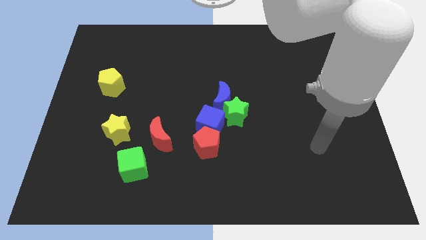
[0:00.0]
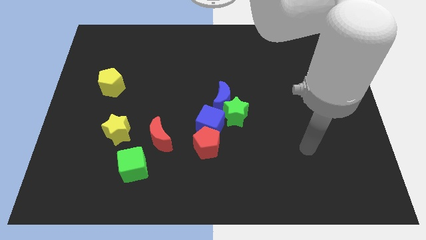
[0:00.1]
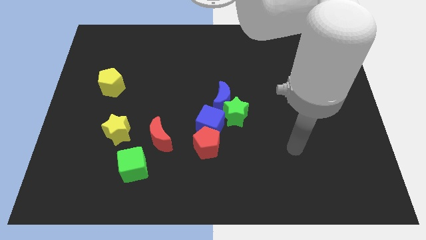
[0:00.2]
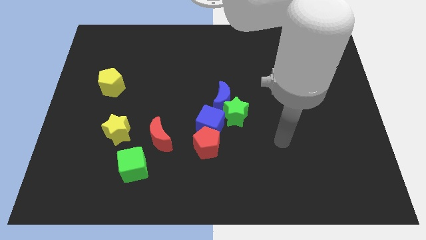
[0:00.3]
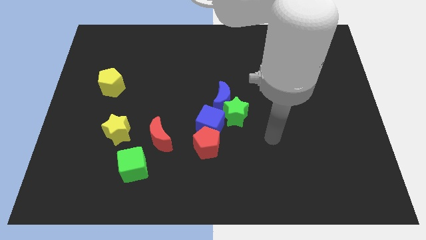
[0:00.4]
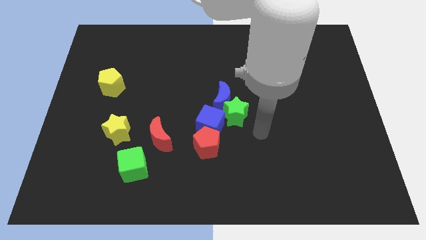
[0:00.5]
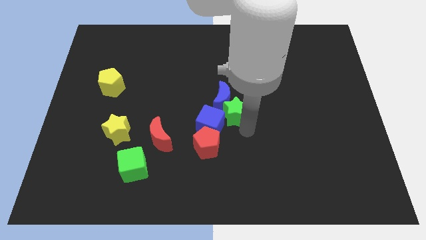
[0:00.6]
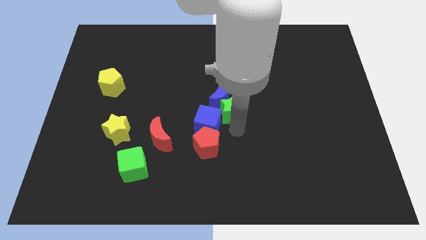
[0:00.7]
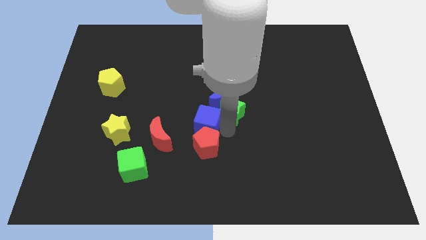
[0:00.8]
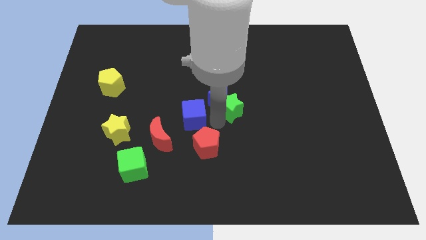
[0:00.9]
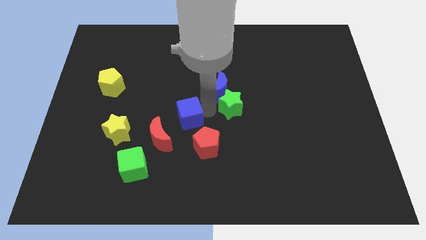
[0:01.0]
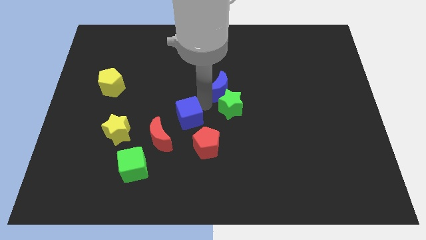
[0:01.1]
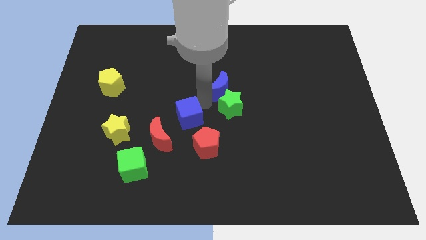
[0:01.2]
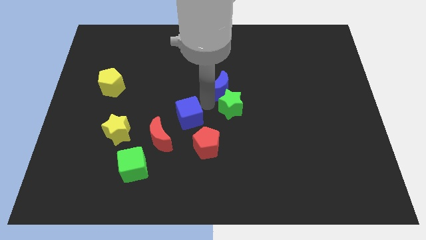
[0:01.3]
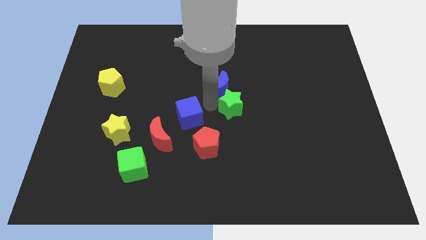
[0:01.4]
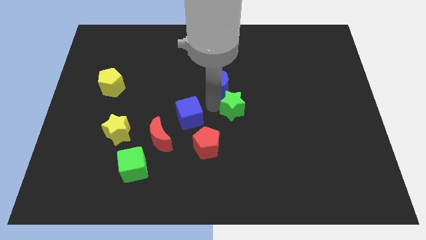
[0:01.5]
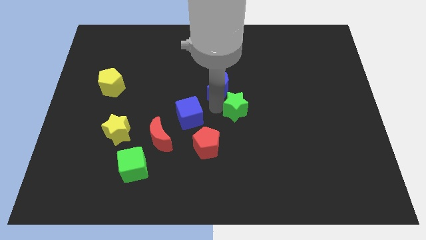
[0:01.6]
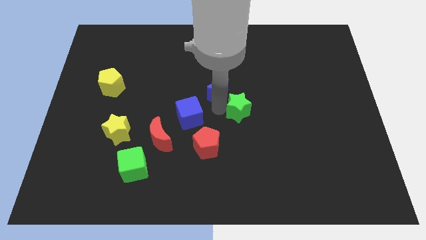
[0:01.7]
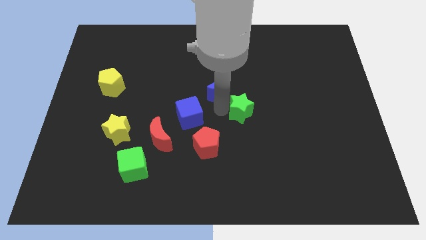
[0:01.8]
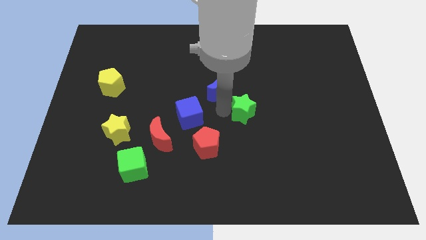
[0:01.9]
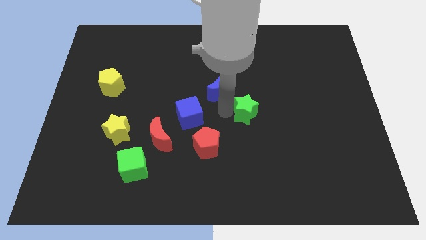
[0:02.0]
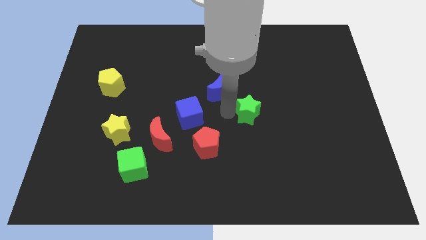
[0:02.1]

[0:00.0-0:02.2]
separate the green star from the blue moon and blue cube

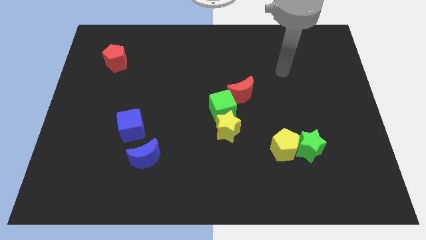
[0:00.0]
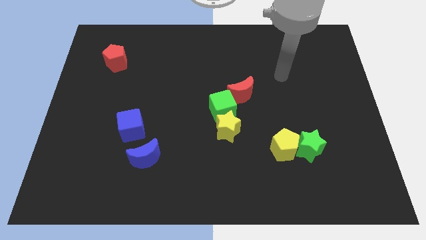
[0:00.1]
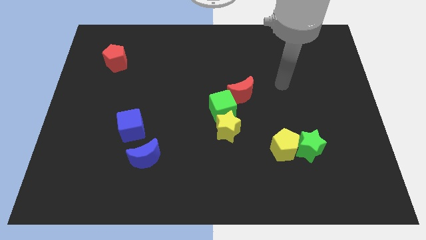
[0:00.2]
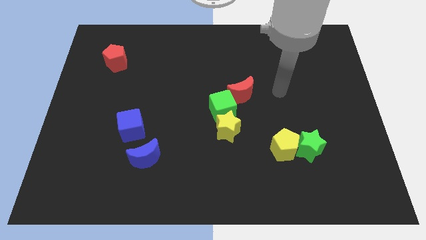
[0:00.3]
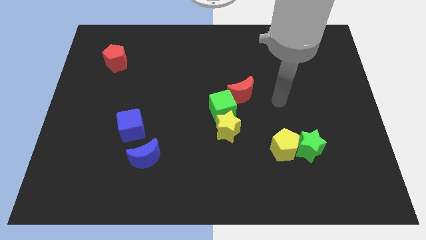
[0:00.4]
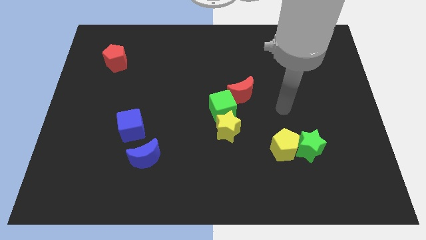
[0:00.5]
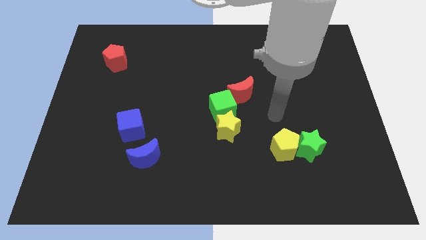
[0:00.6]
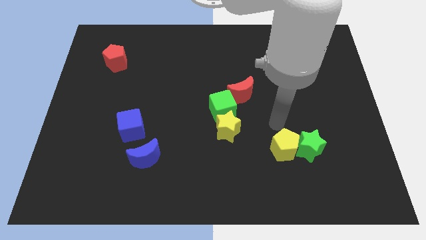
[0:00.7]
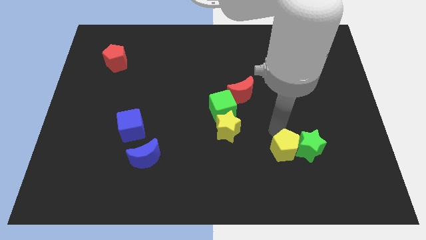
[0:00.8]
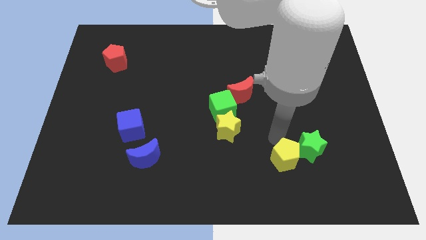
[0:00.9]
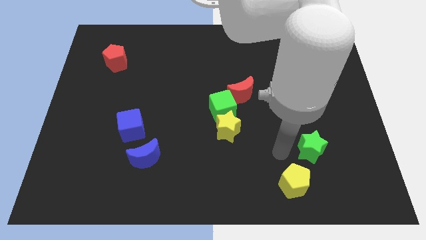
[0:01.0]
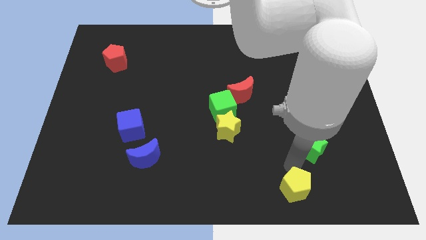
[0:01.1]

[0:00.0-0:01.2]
pull the green star apart from the yellow pentagon

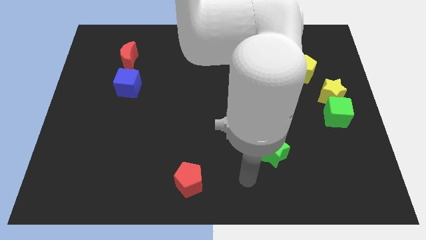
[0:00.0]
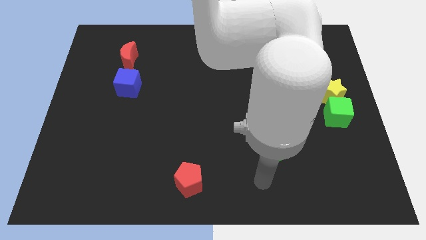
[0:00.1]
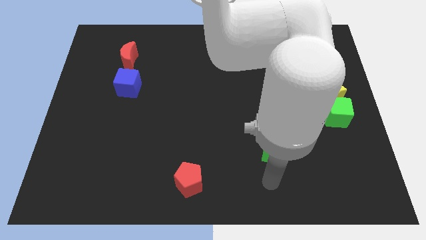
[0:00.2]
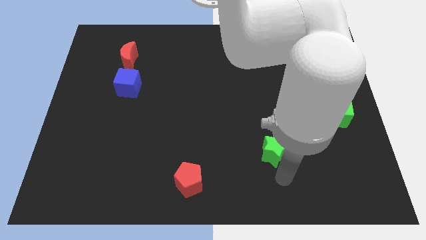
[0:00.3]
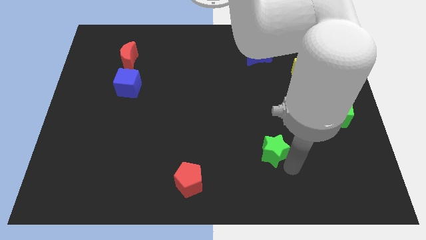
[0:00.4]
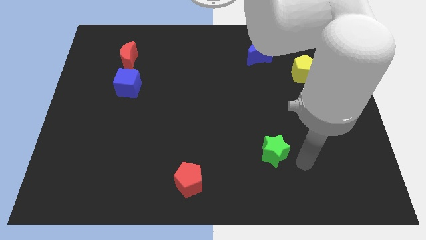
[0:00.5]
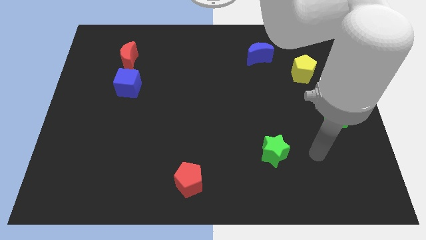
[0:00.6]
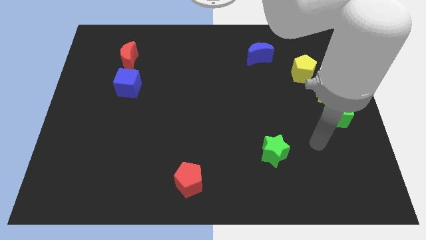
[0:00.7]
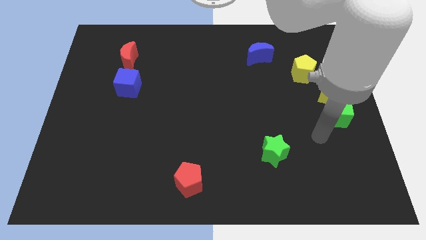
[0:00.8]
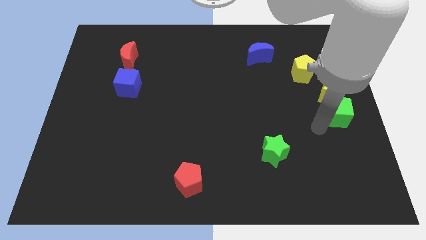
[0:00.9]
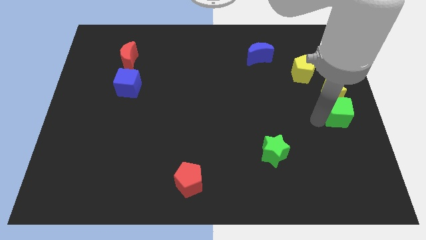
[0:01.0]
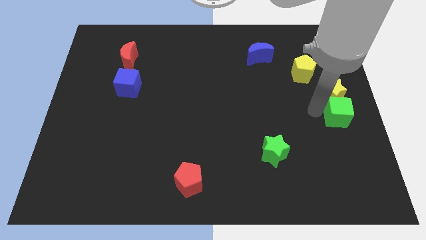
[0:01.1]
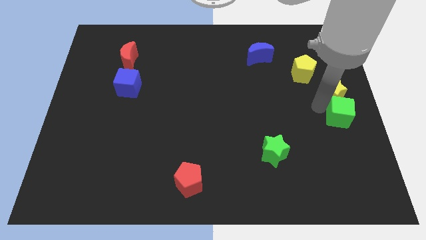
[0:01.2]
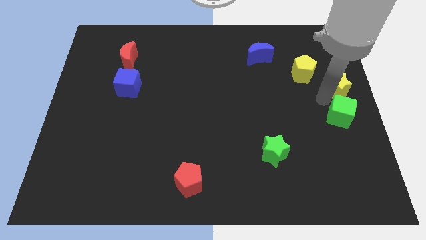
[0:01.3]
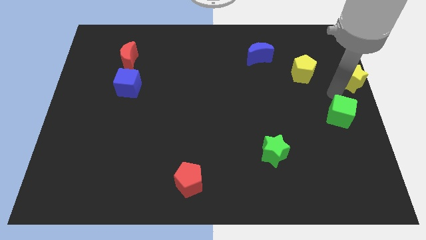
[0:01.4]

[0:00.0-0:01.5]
move the green cube away from the yellow star

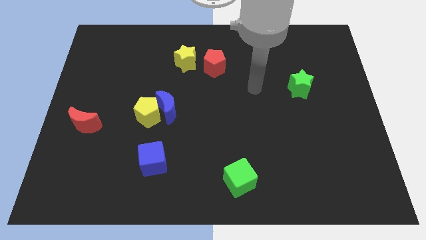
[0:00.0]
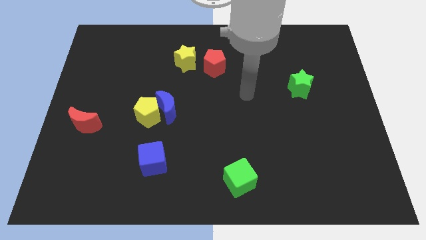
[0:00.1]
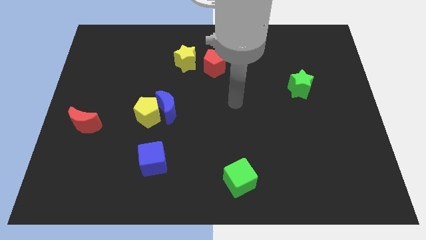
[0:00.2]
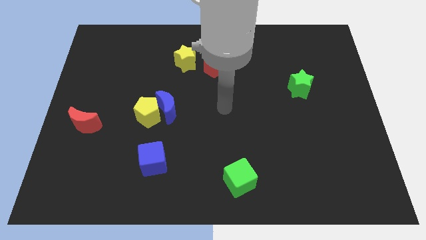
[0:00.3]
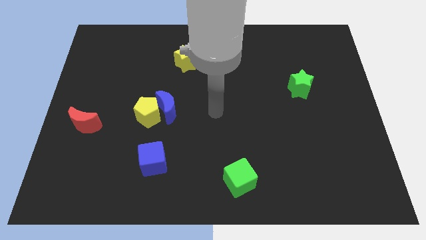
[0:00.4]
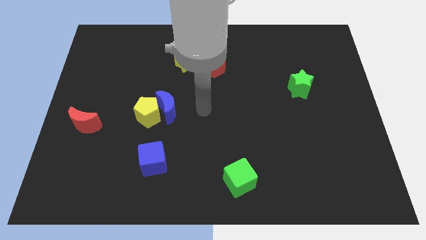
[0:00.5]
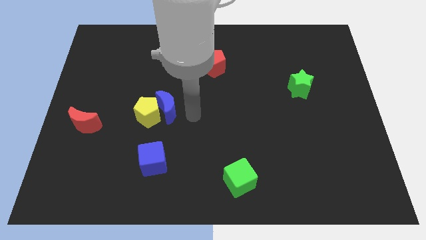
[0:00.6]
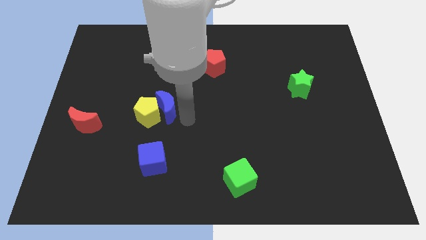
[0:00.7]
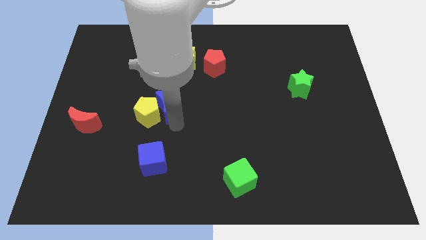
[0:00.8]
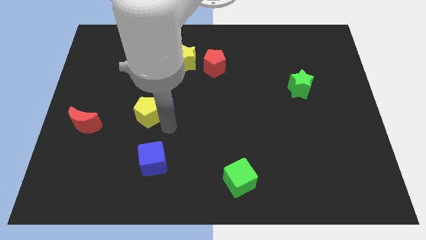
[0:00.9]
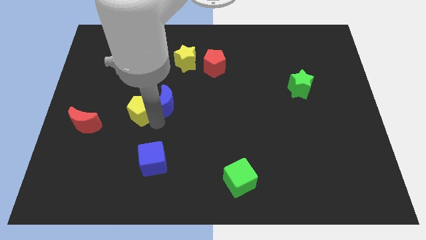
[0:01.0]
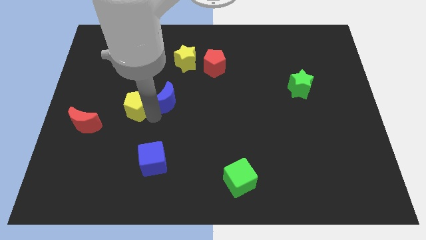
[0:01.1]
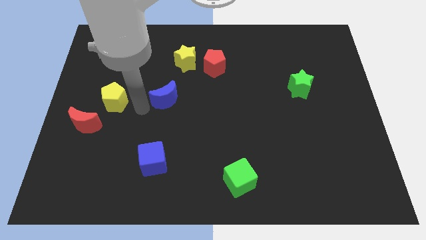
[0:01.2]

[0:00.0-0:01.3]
pull the blue moon apart from the yellow pentagon

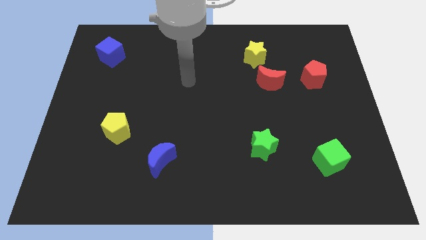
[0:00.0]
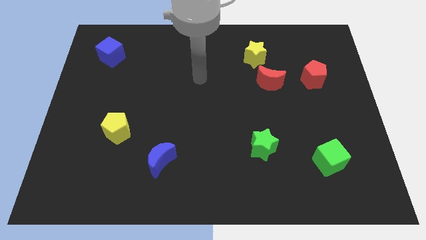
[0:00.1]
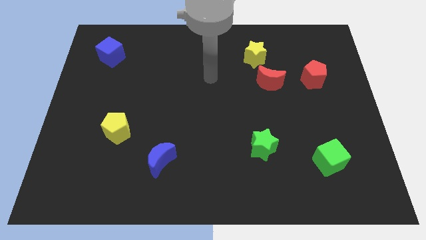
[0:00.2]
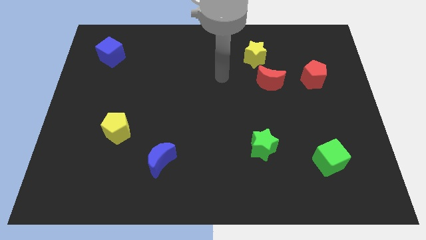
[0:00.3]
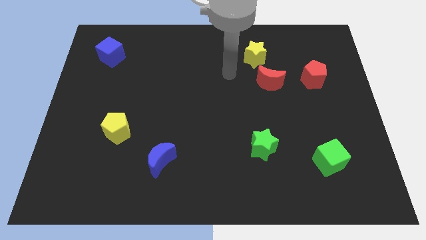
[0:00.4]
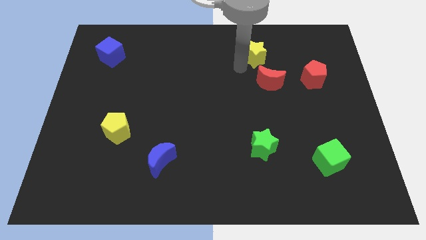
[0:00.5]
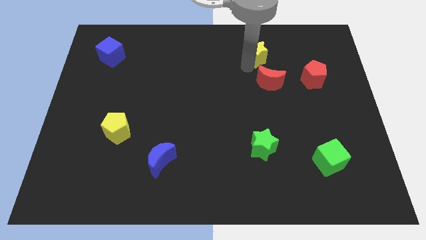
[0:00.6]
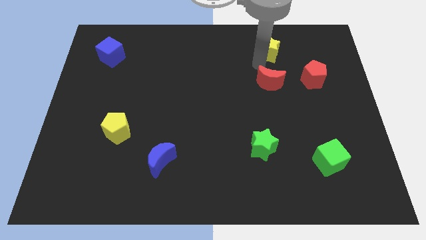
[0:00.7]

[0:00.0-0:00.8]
separate the red moon from the yellow star

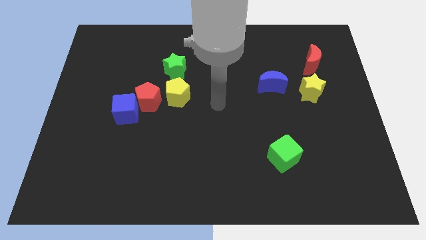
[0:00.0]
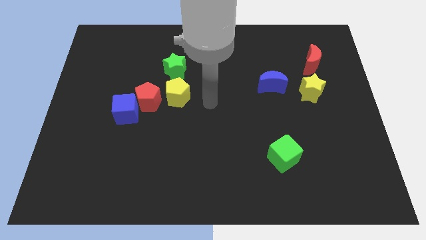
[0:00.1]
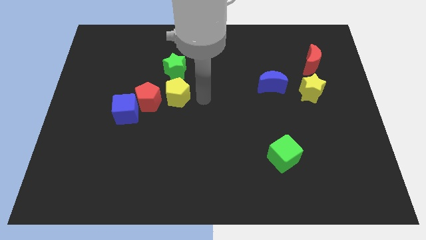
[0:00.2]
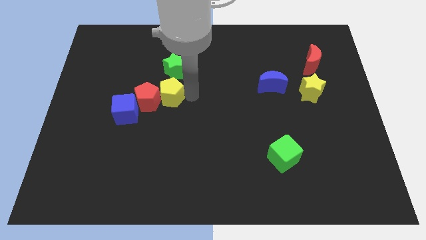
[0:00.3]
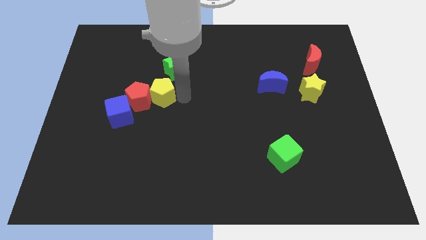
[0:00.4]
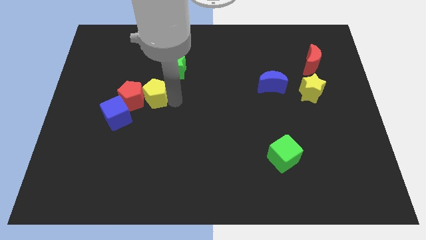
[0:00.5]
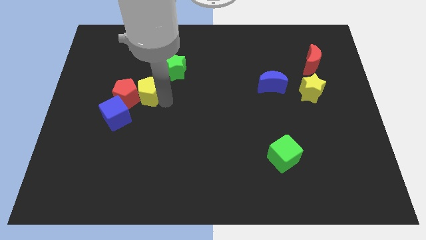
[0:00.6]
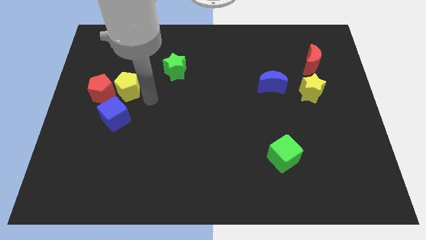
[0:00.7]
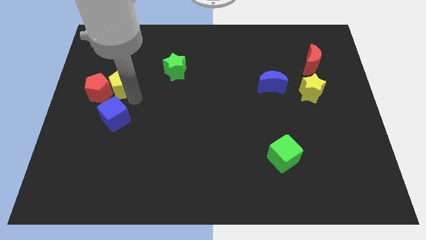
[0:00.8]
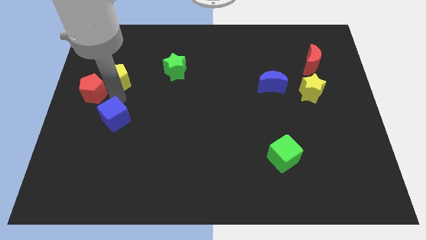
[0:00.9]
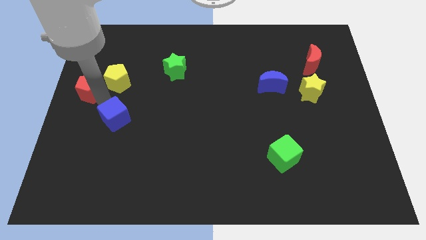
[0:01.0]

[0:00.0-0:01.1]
pull the blue cube apart from the red pentagon

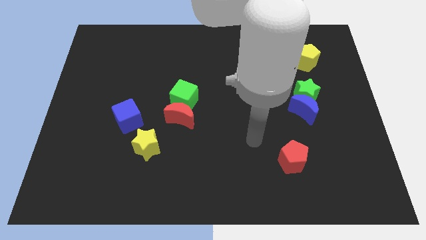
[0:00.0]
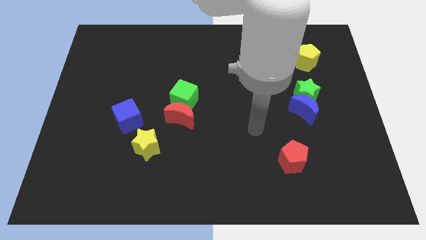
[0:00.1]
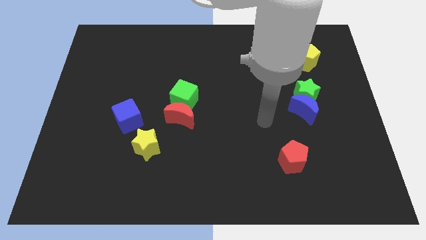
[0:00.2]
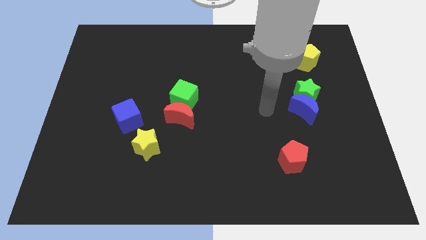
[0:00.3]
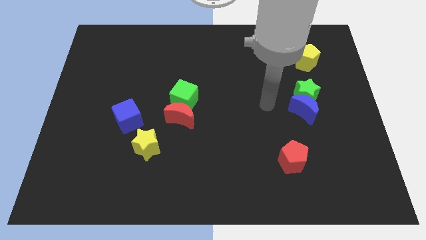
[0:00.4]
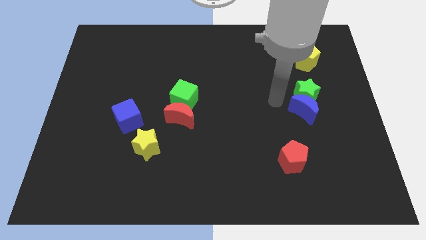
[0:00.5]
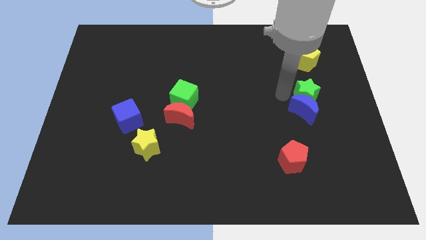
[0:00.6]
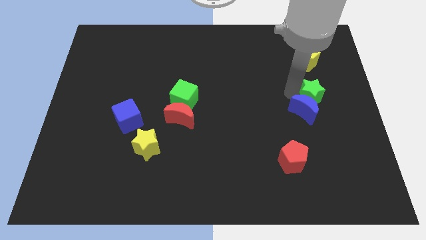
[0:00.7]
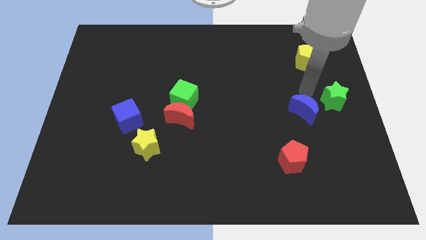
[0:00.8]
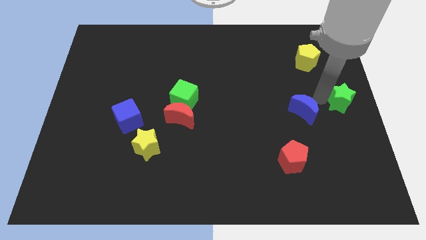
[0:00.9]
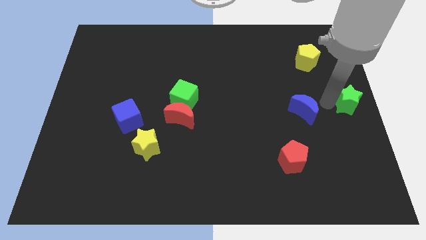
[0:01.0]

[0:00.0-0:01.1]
separate the blue moon from the green star

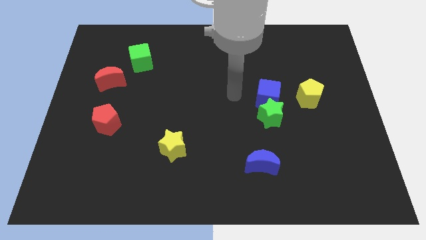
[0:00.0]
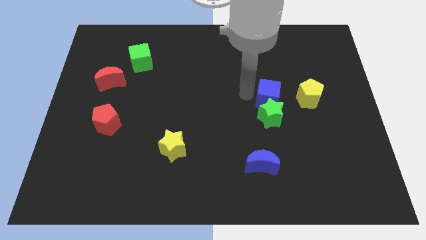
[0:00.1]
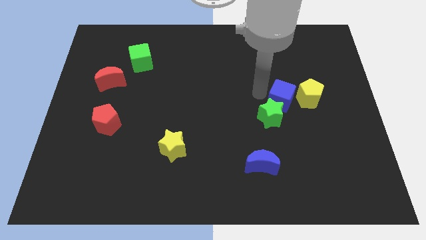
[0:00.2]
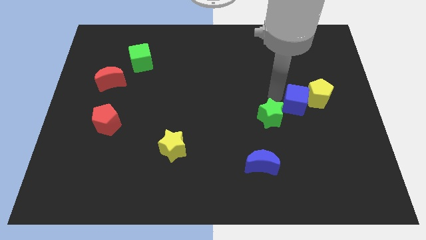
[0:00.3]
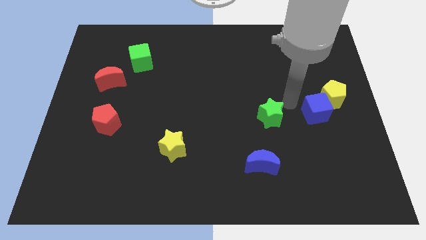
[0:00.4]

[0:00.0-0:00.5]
separate the green star from the blue cube
